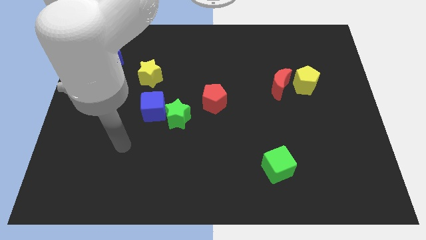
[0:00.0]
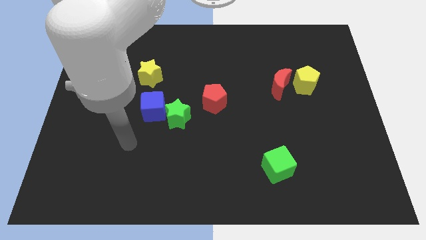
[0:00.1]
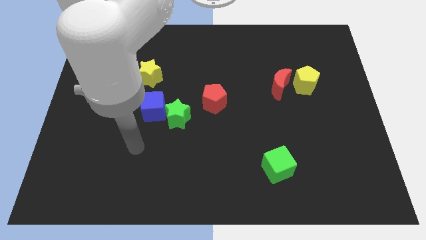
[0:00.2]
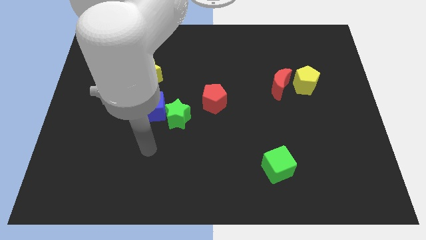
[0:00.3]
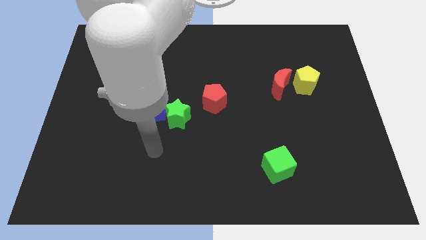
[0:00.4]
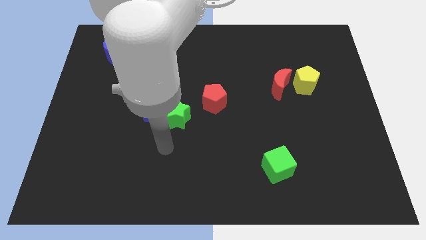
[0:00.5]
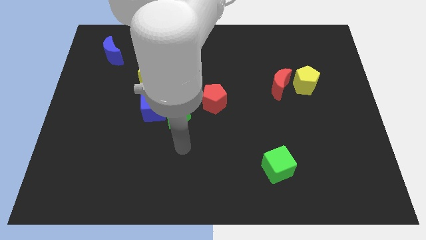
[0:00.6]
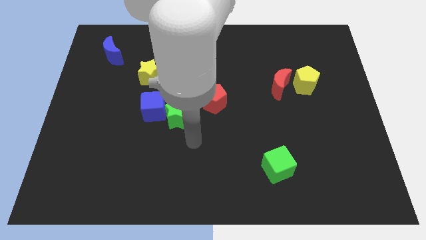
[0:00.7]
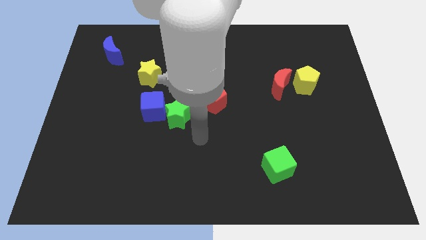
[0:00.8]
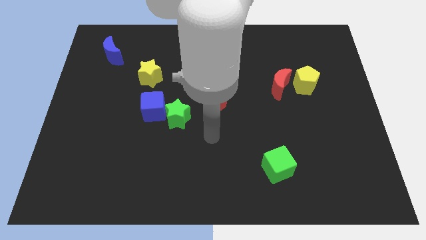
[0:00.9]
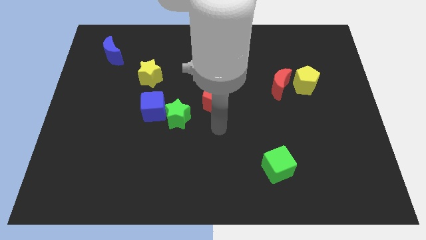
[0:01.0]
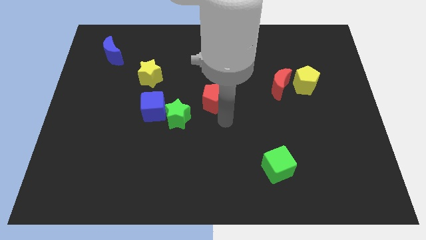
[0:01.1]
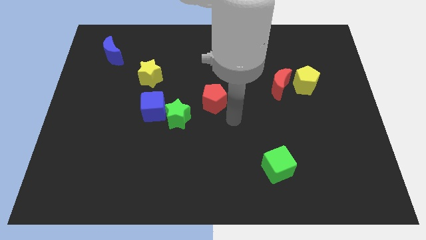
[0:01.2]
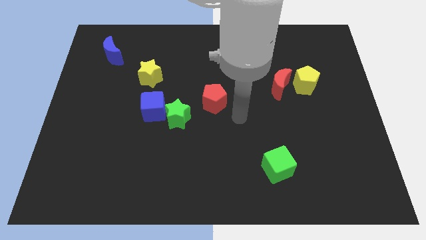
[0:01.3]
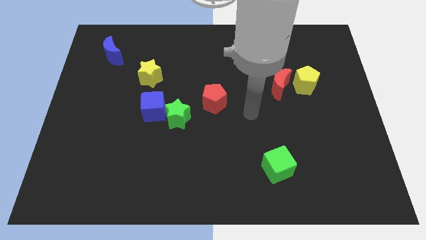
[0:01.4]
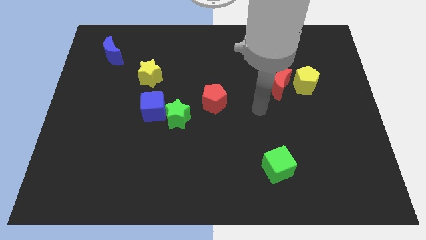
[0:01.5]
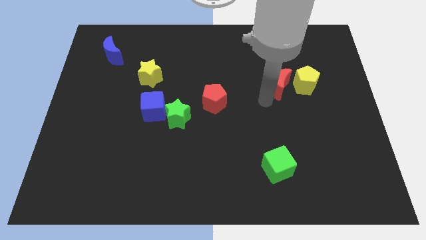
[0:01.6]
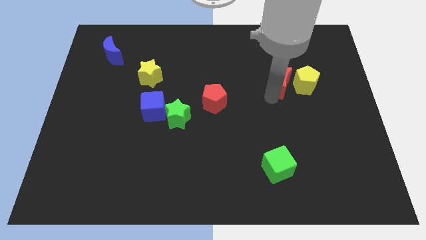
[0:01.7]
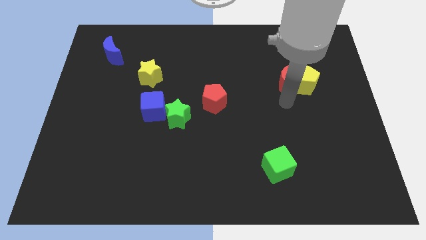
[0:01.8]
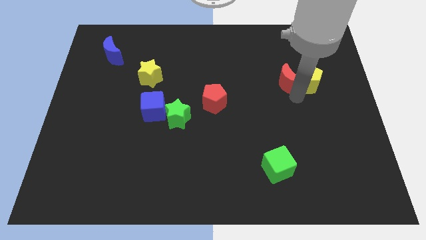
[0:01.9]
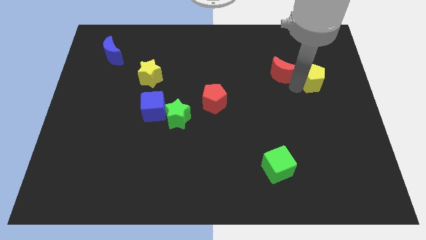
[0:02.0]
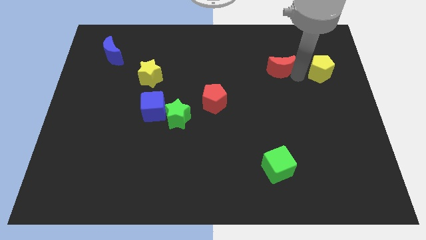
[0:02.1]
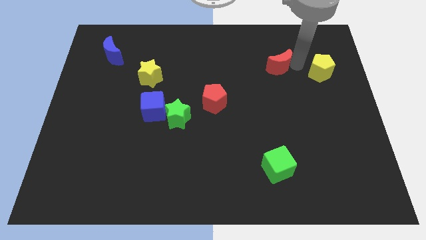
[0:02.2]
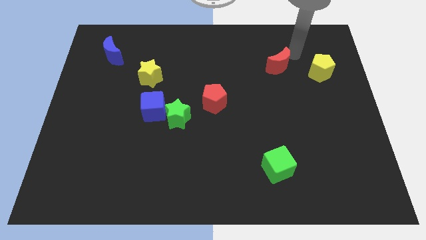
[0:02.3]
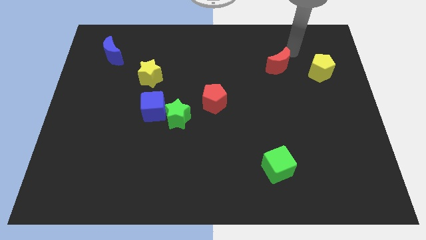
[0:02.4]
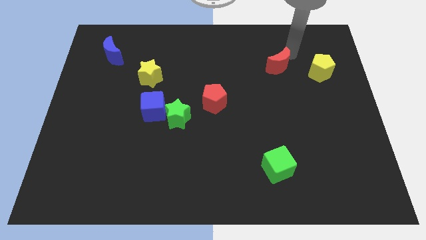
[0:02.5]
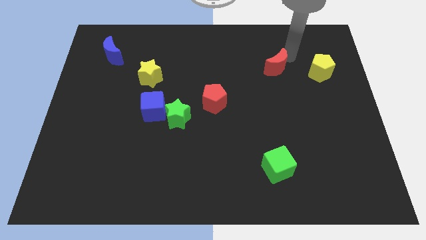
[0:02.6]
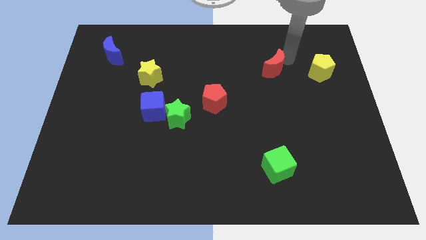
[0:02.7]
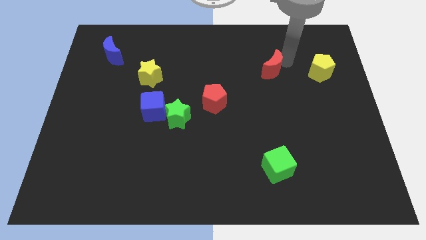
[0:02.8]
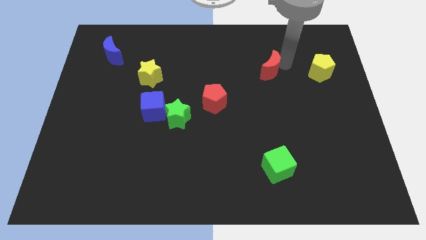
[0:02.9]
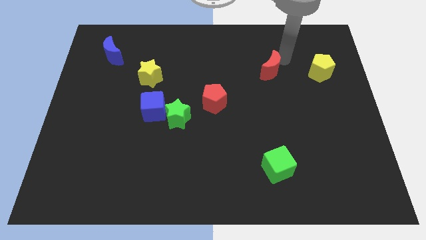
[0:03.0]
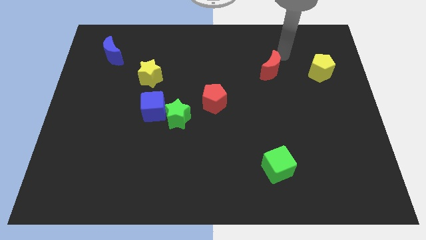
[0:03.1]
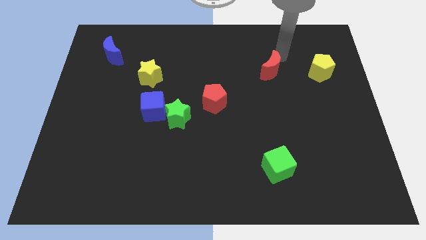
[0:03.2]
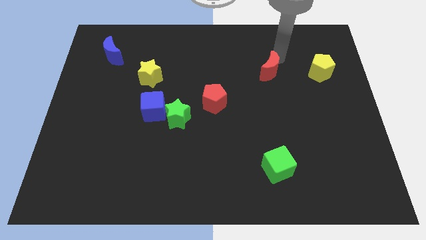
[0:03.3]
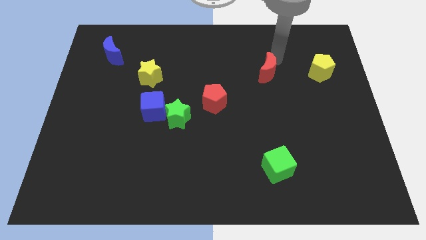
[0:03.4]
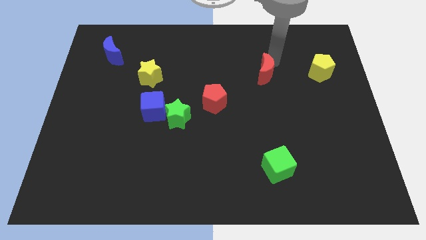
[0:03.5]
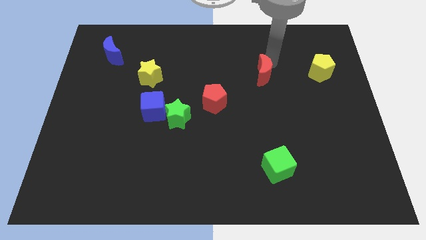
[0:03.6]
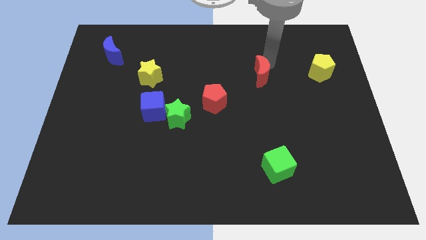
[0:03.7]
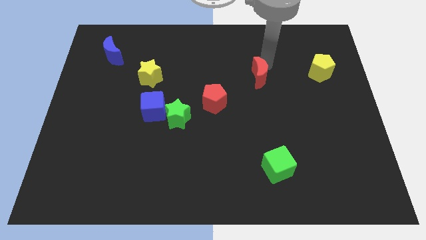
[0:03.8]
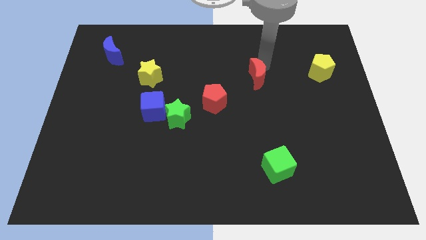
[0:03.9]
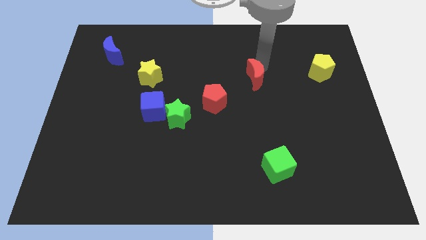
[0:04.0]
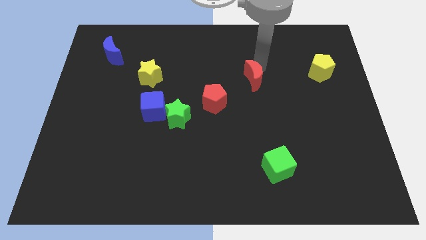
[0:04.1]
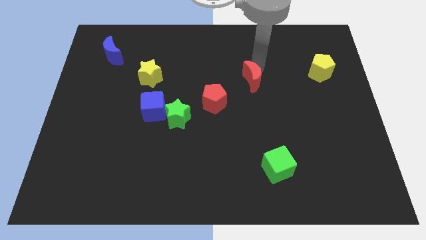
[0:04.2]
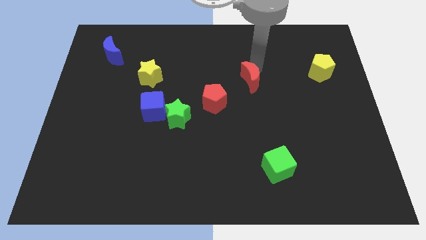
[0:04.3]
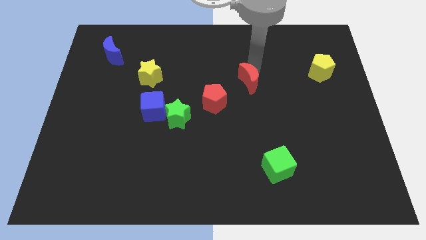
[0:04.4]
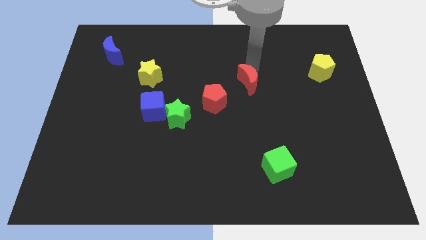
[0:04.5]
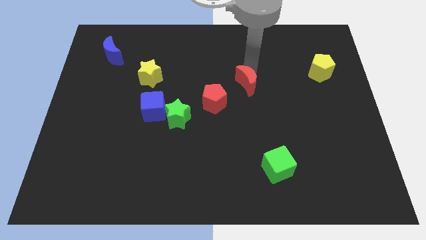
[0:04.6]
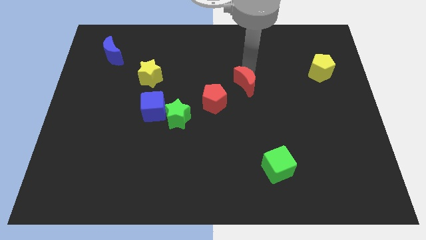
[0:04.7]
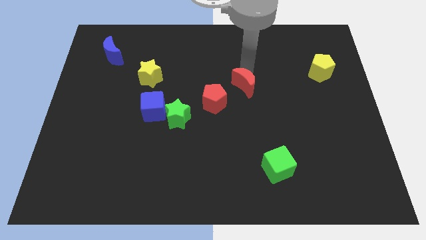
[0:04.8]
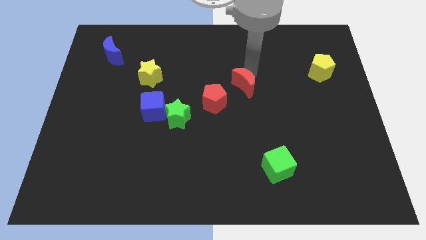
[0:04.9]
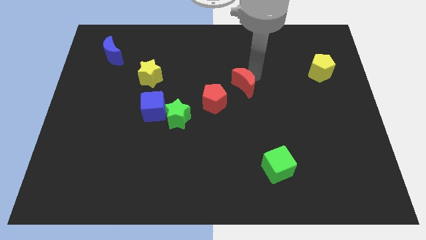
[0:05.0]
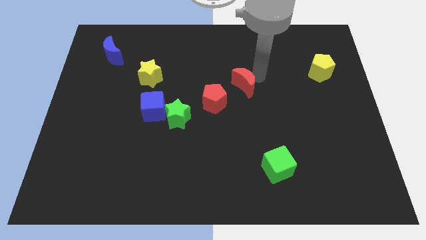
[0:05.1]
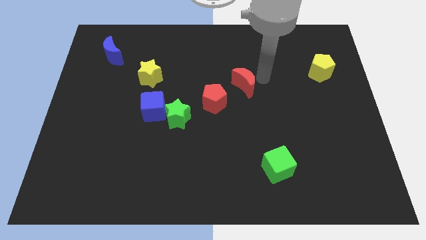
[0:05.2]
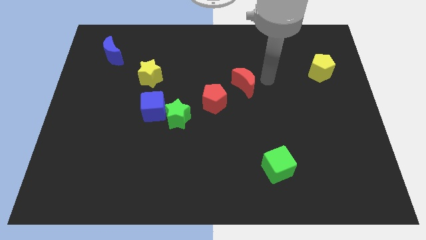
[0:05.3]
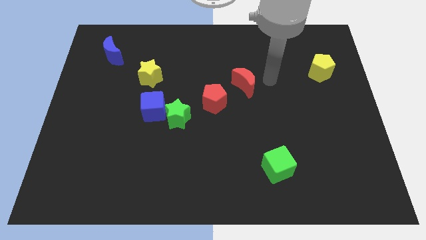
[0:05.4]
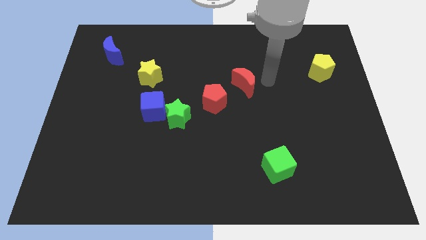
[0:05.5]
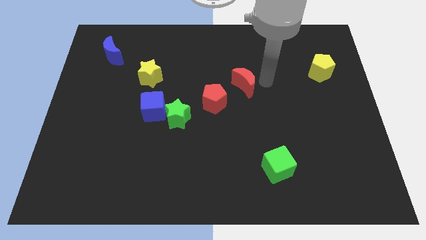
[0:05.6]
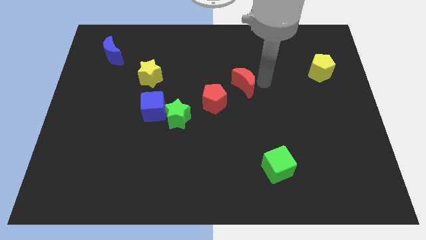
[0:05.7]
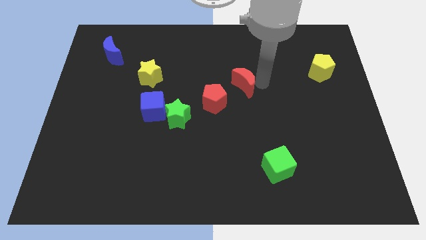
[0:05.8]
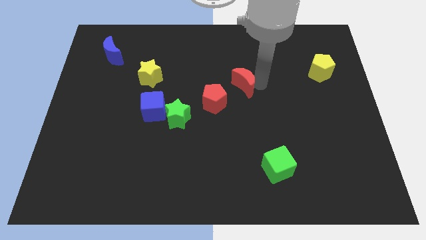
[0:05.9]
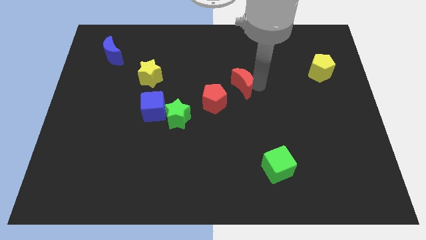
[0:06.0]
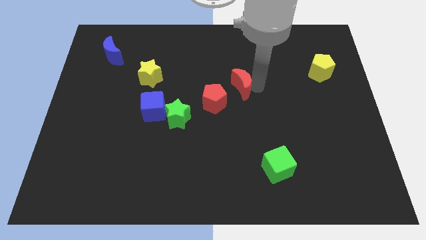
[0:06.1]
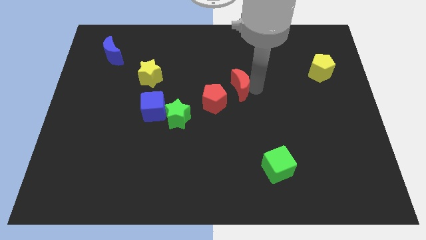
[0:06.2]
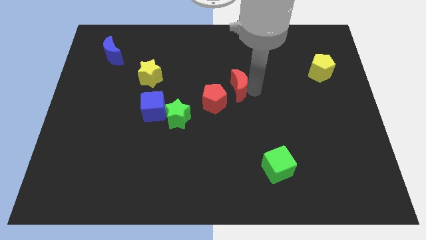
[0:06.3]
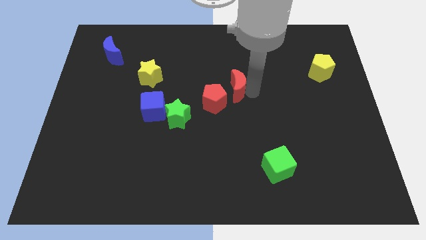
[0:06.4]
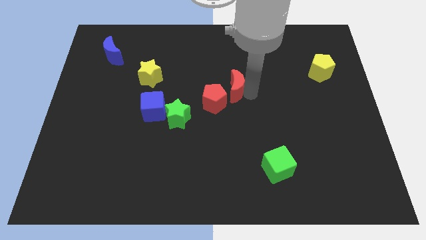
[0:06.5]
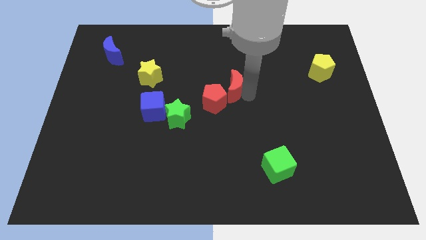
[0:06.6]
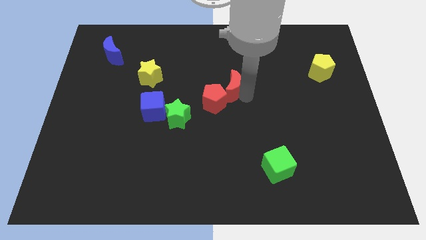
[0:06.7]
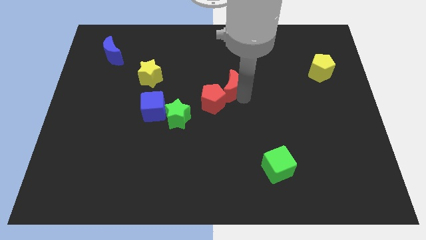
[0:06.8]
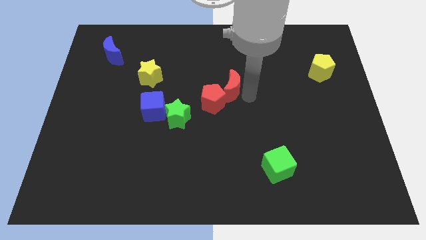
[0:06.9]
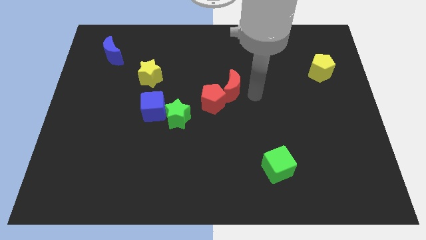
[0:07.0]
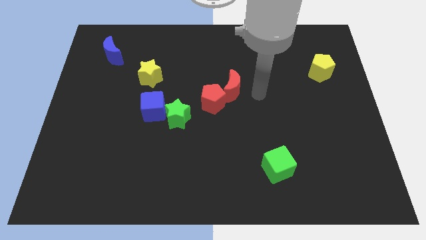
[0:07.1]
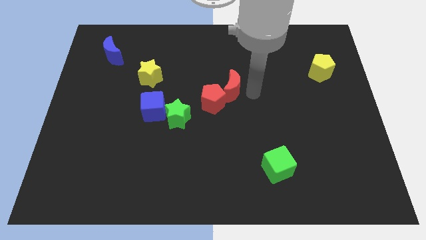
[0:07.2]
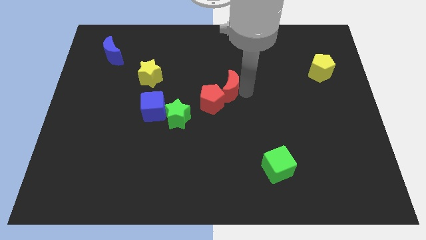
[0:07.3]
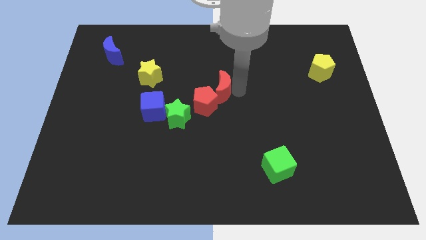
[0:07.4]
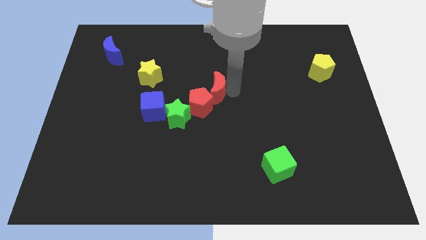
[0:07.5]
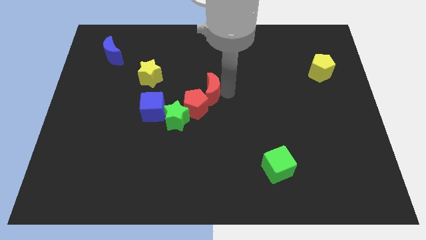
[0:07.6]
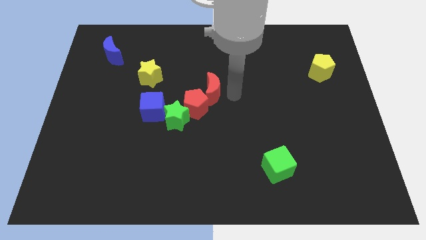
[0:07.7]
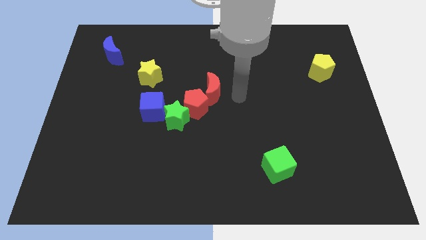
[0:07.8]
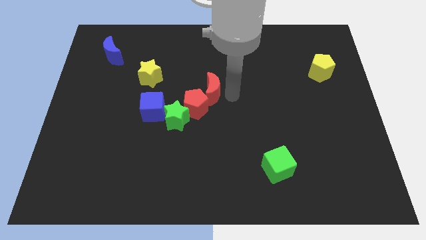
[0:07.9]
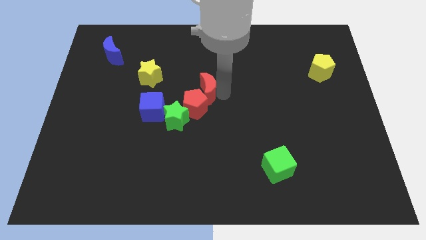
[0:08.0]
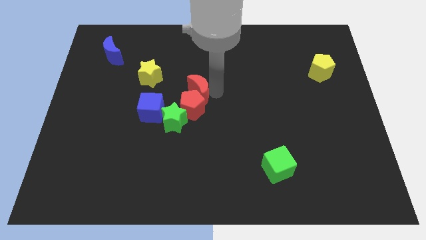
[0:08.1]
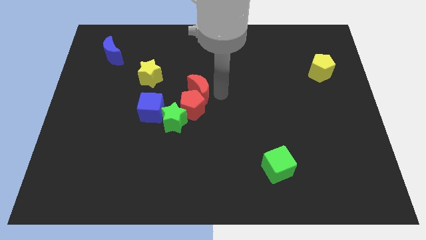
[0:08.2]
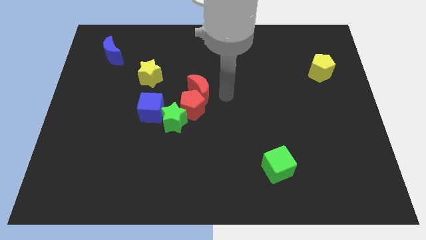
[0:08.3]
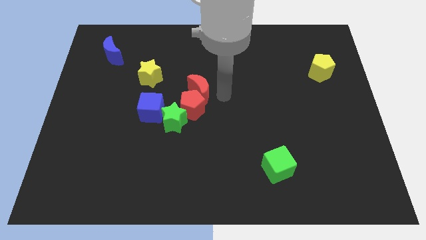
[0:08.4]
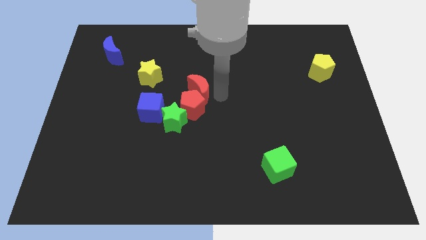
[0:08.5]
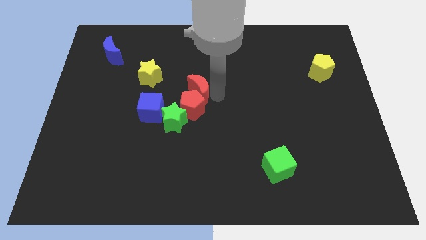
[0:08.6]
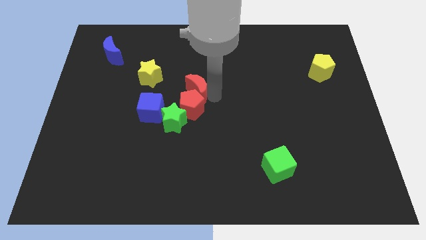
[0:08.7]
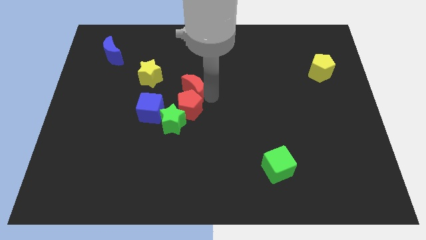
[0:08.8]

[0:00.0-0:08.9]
slide the red moon to the top side of the green star
